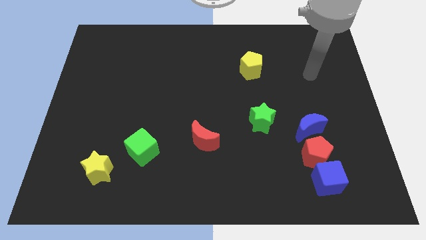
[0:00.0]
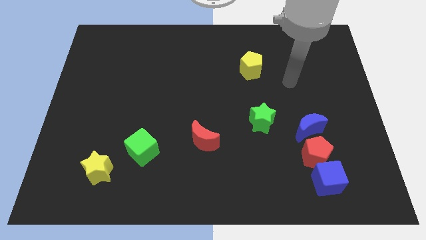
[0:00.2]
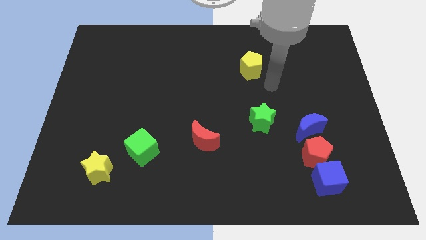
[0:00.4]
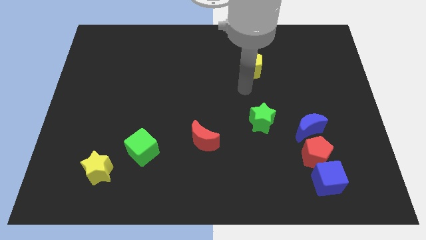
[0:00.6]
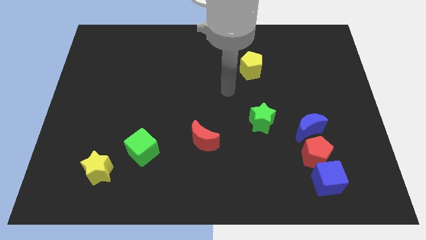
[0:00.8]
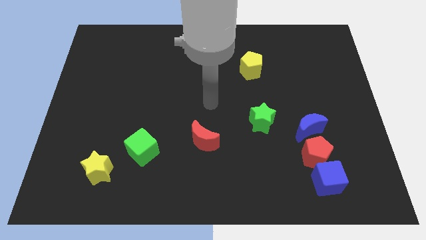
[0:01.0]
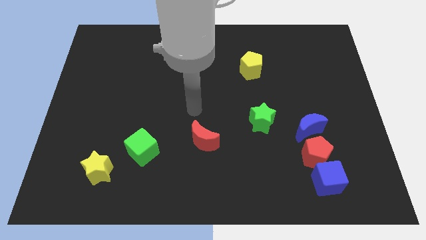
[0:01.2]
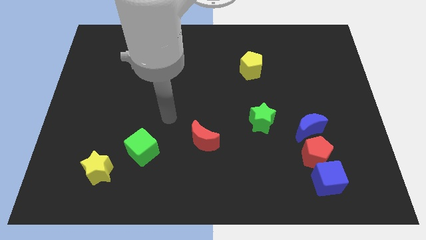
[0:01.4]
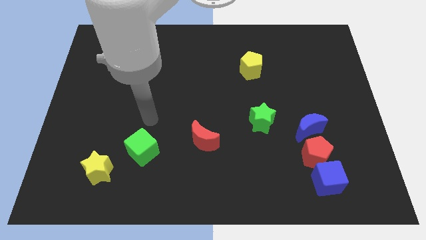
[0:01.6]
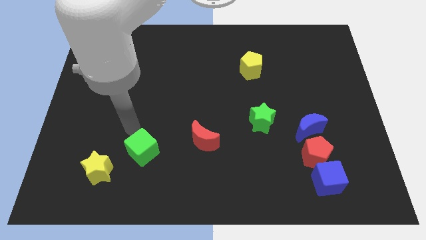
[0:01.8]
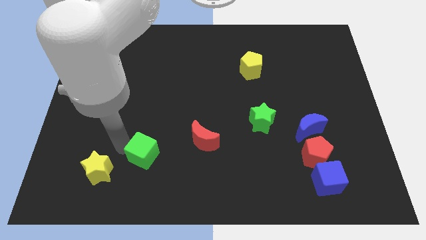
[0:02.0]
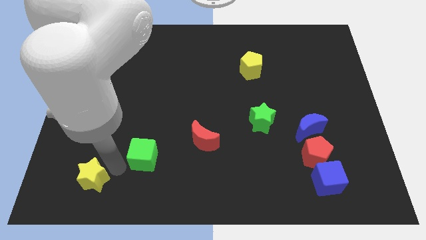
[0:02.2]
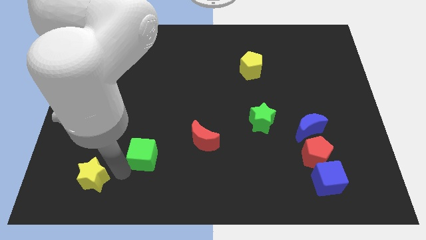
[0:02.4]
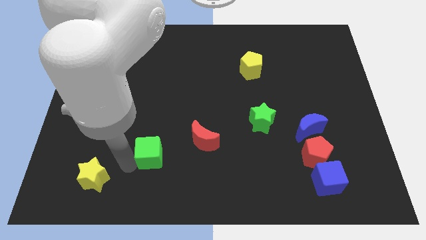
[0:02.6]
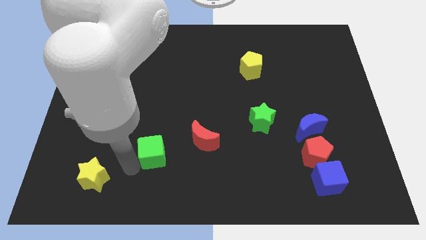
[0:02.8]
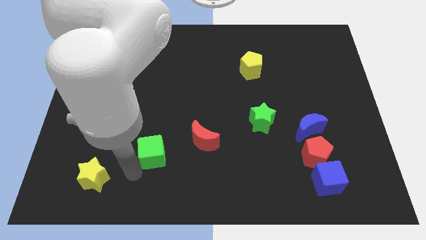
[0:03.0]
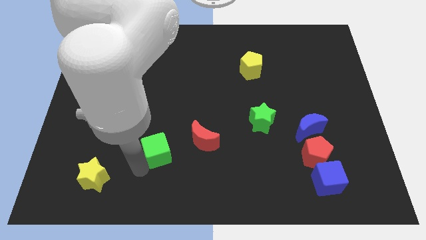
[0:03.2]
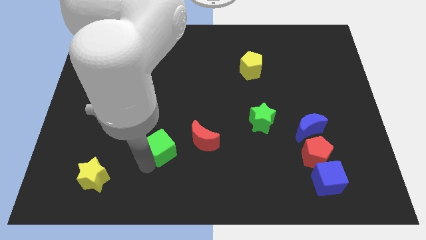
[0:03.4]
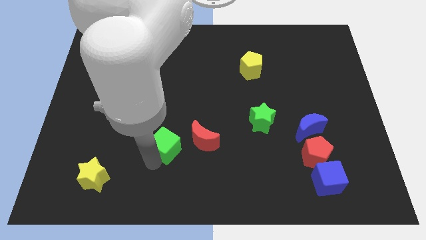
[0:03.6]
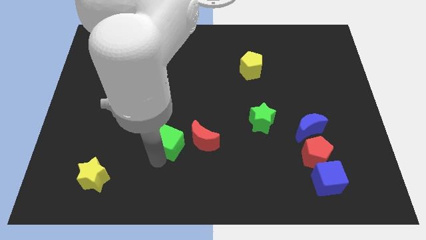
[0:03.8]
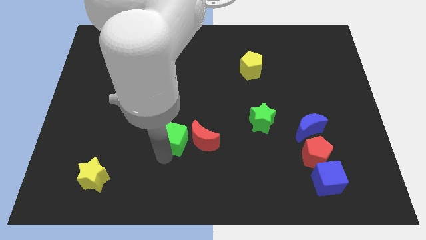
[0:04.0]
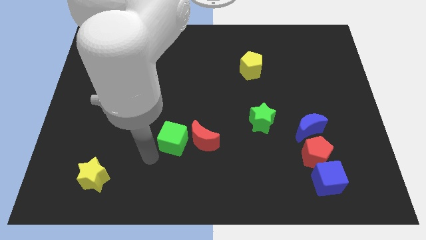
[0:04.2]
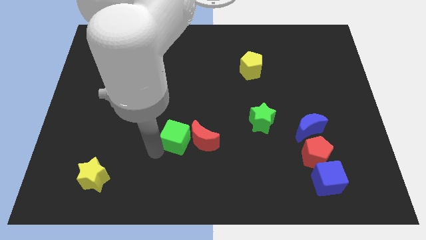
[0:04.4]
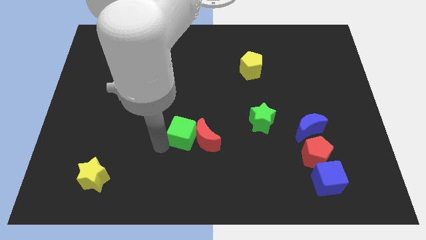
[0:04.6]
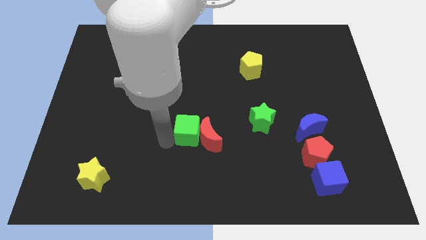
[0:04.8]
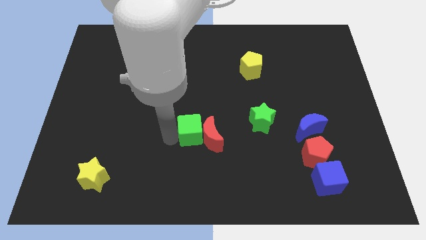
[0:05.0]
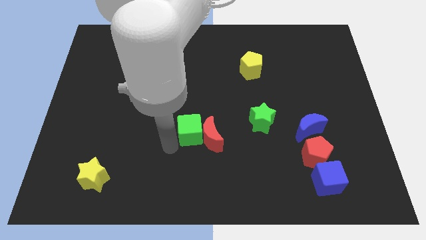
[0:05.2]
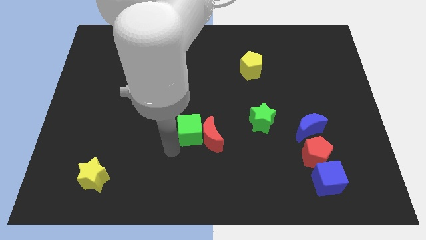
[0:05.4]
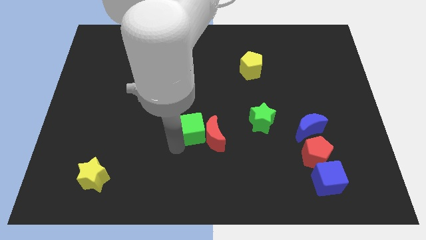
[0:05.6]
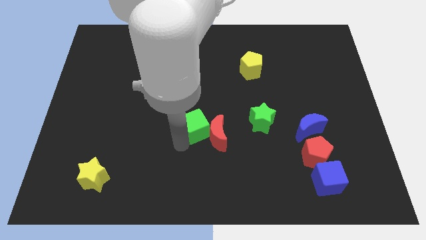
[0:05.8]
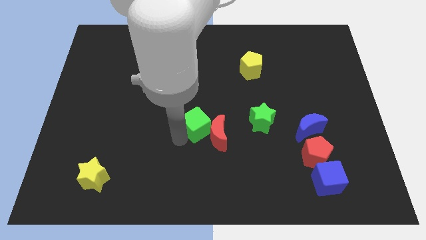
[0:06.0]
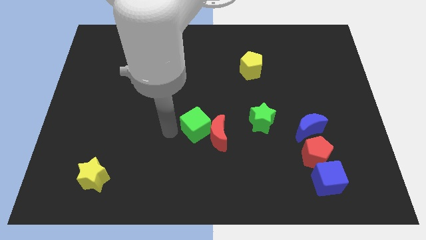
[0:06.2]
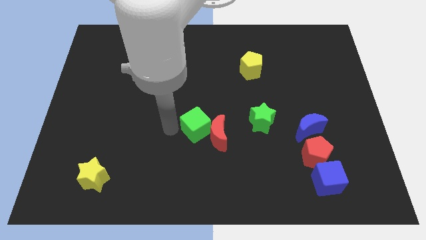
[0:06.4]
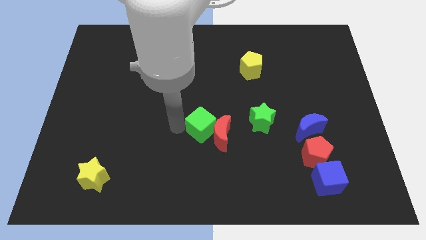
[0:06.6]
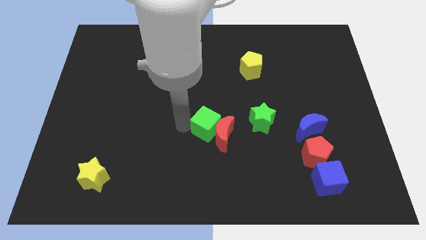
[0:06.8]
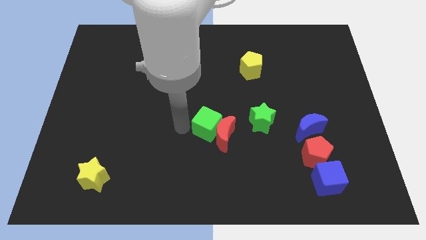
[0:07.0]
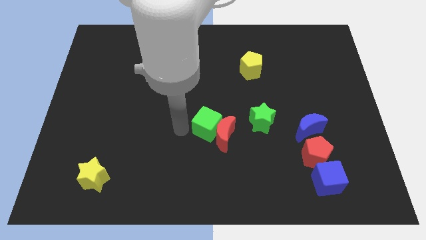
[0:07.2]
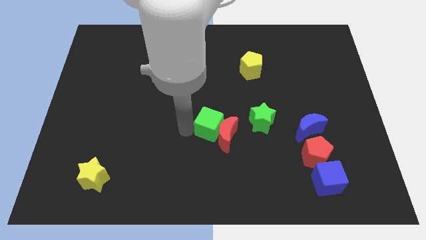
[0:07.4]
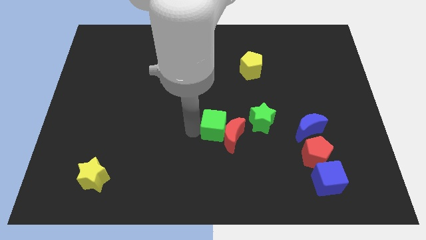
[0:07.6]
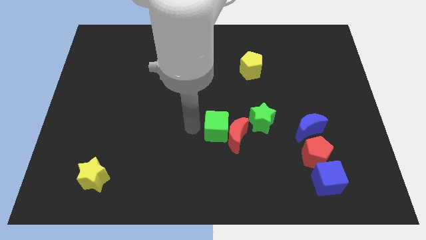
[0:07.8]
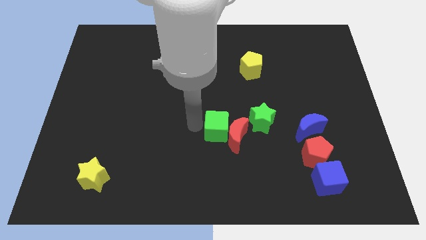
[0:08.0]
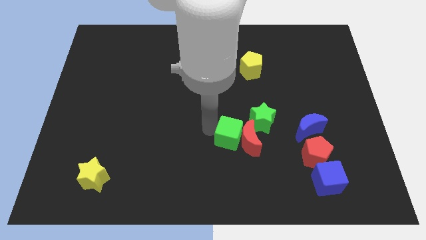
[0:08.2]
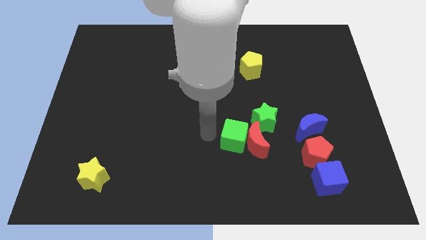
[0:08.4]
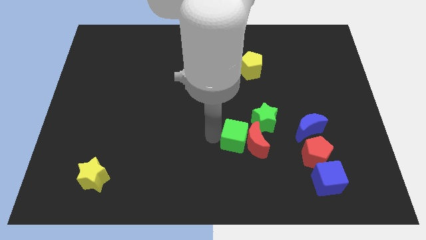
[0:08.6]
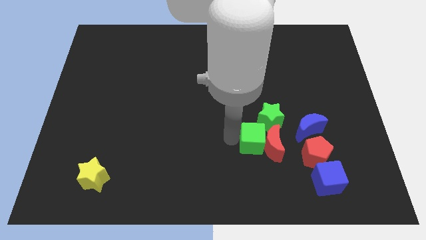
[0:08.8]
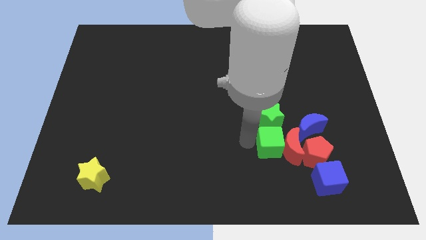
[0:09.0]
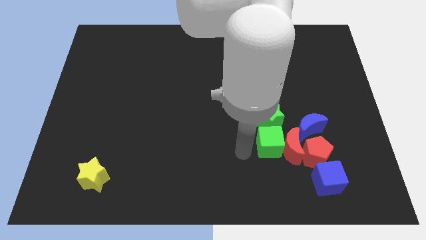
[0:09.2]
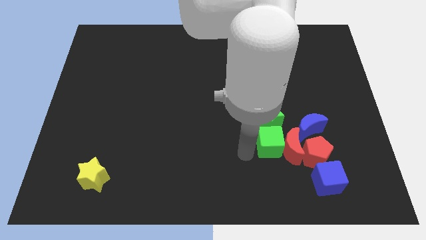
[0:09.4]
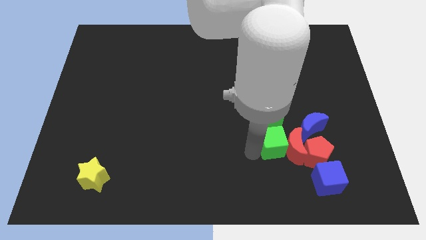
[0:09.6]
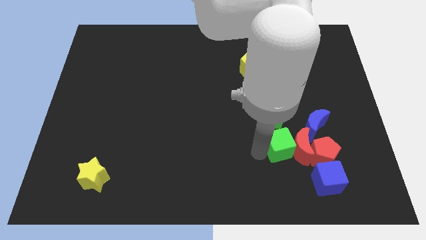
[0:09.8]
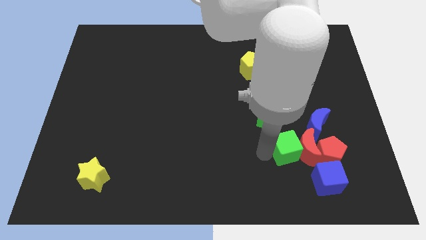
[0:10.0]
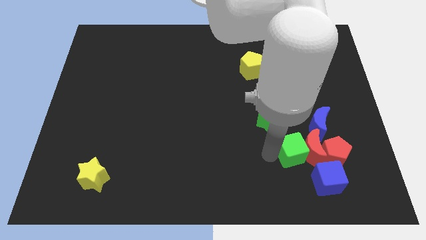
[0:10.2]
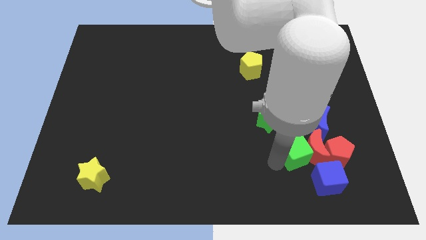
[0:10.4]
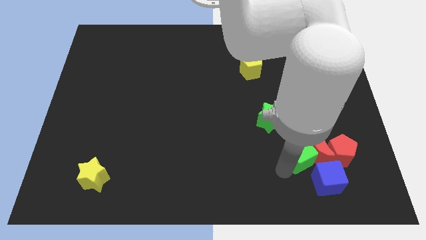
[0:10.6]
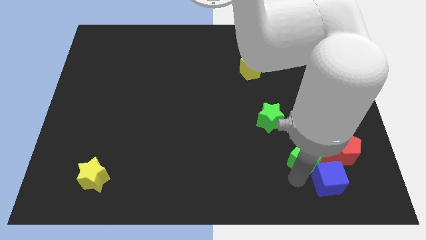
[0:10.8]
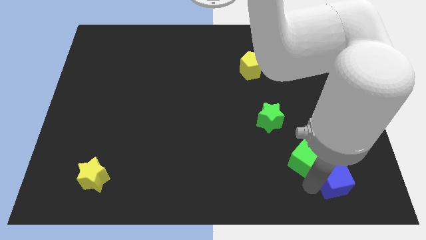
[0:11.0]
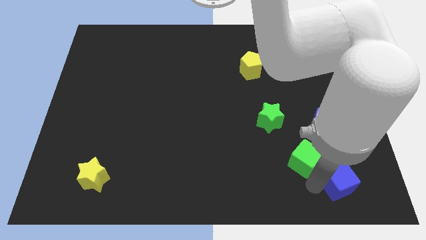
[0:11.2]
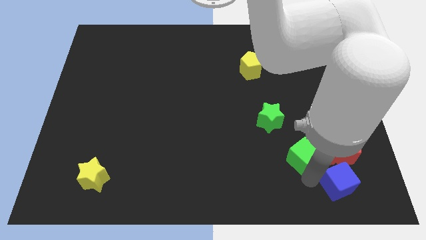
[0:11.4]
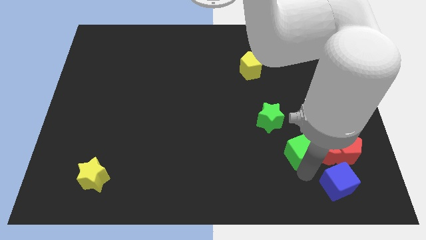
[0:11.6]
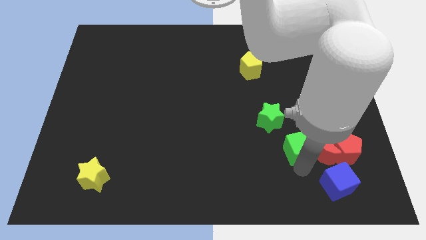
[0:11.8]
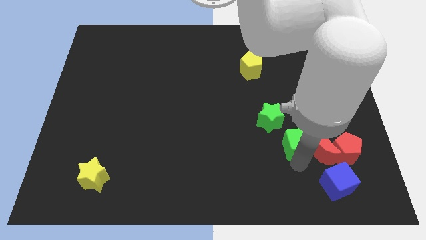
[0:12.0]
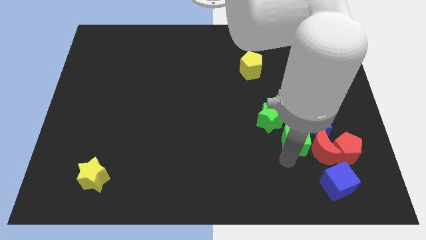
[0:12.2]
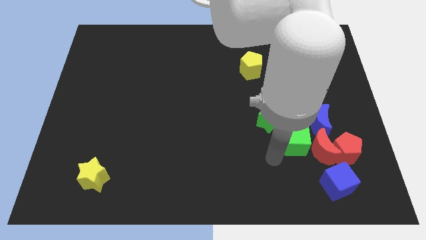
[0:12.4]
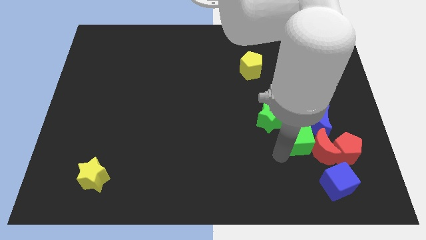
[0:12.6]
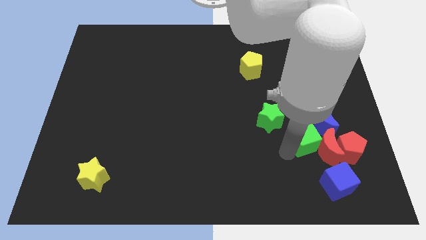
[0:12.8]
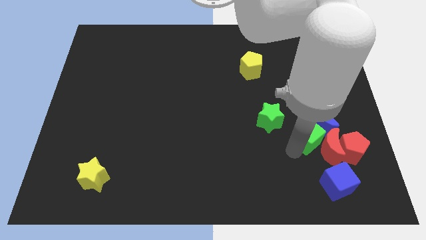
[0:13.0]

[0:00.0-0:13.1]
push the green cube to the blue moon

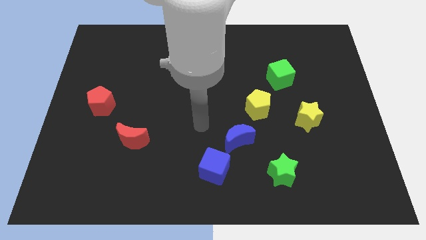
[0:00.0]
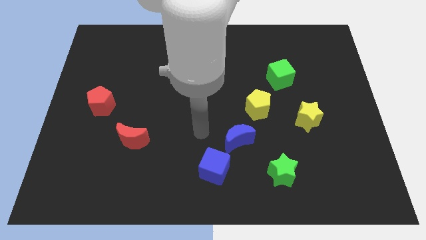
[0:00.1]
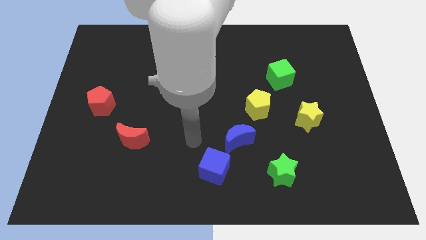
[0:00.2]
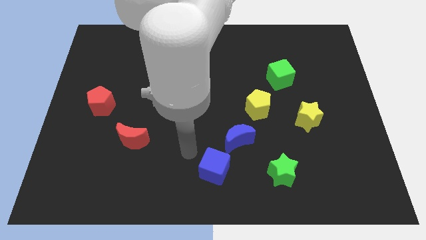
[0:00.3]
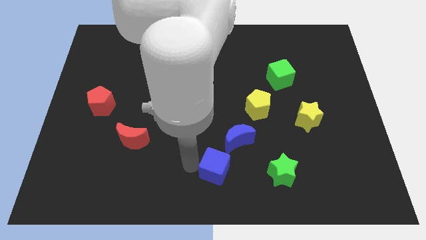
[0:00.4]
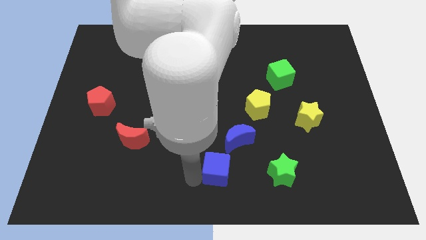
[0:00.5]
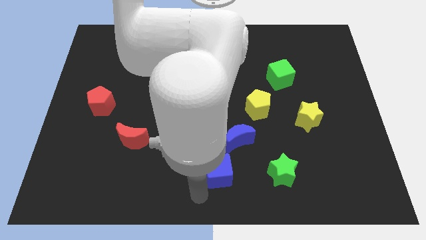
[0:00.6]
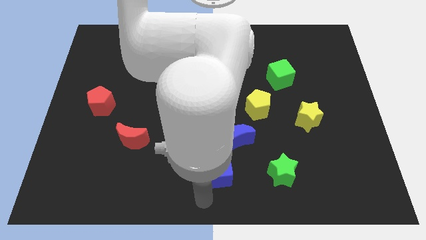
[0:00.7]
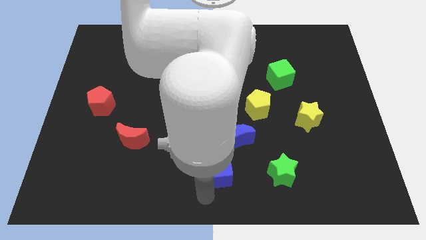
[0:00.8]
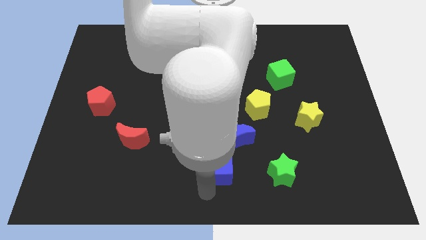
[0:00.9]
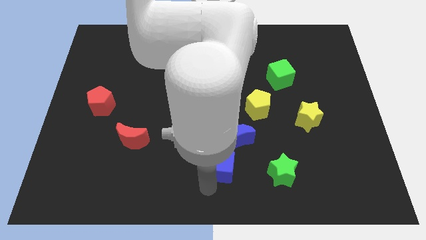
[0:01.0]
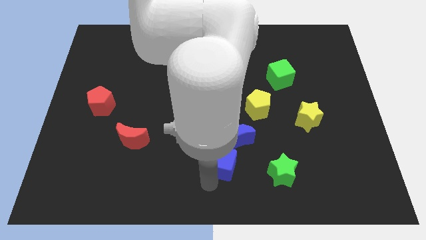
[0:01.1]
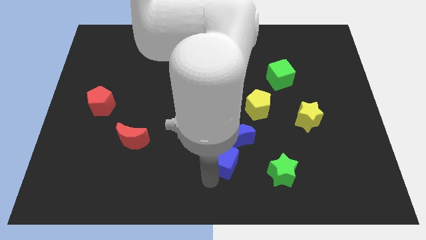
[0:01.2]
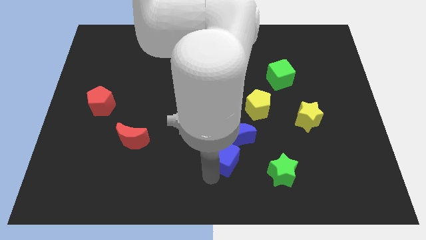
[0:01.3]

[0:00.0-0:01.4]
push the blue cube towards the blue moon
